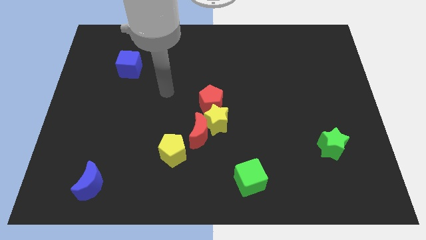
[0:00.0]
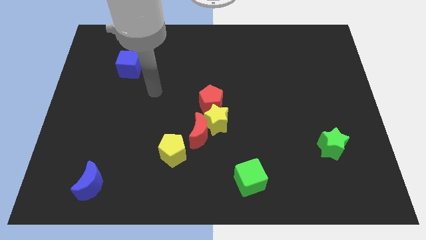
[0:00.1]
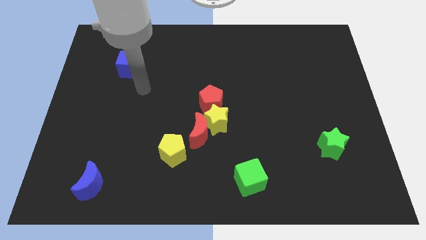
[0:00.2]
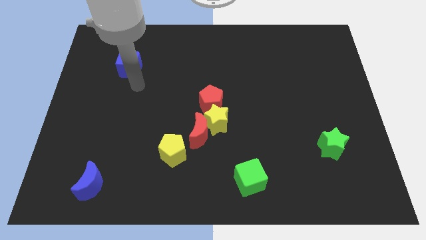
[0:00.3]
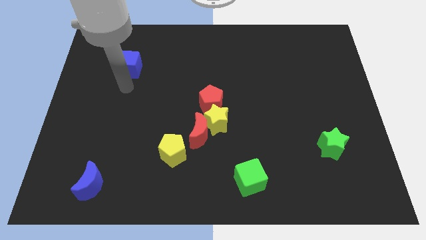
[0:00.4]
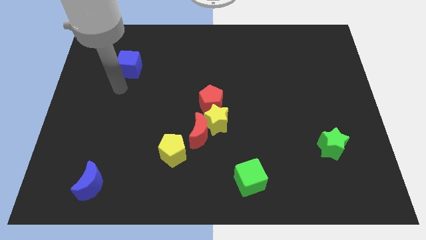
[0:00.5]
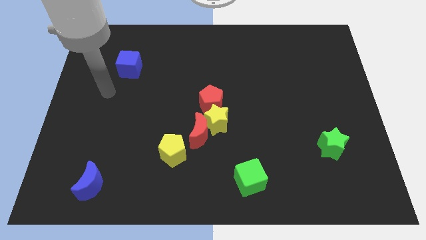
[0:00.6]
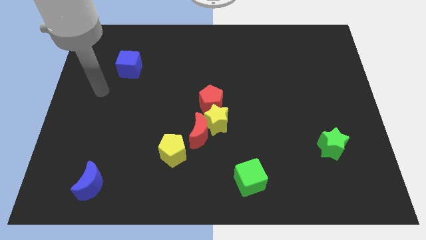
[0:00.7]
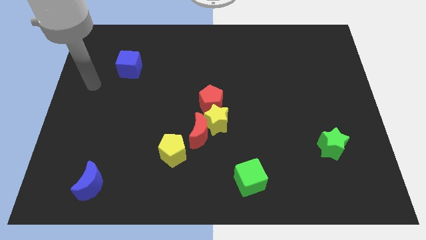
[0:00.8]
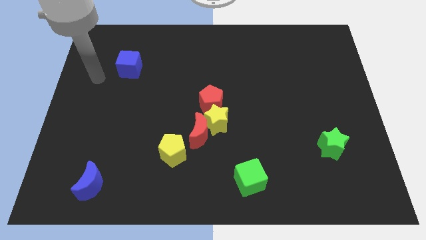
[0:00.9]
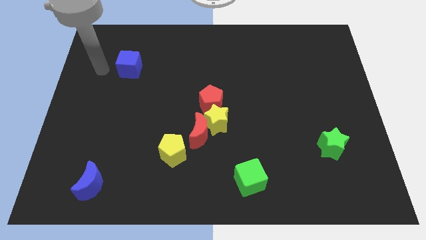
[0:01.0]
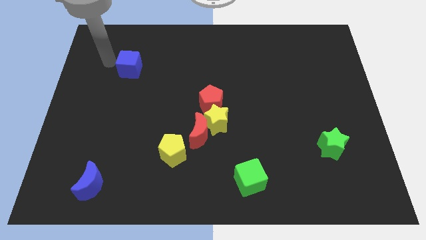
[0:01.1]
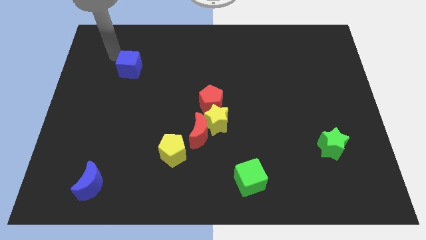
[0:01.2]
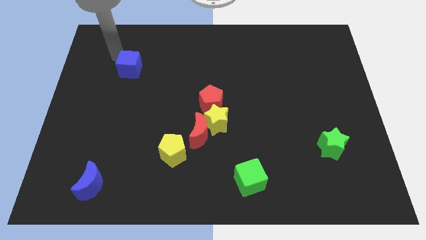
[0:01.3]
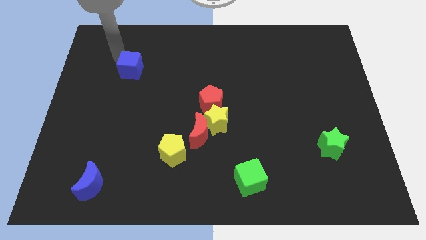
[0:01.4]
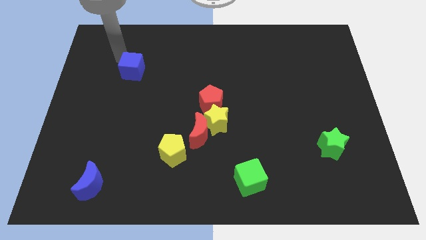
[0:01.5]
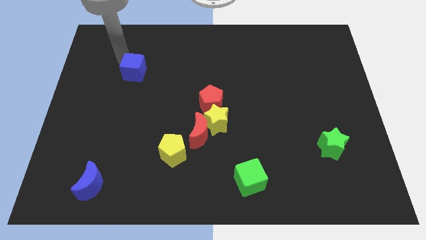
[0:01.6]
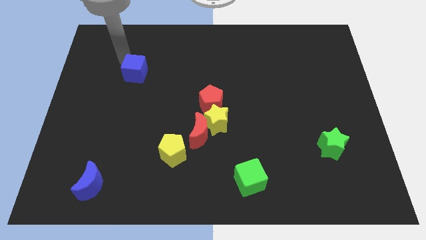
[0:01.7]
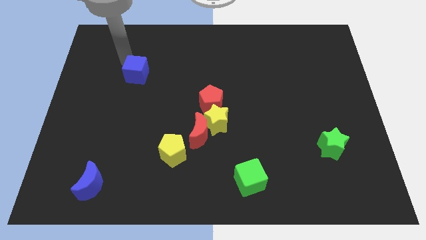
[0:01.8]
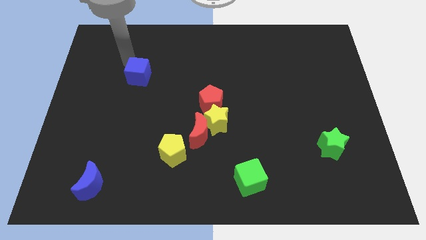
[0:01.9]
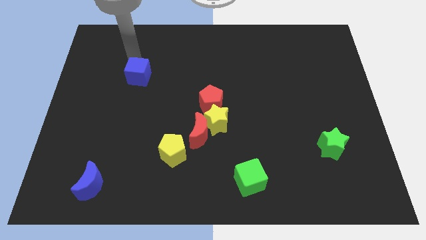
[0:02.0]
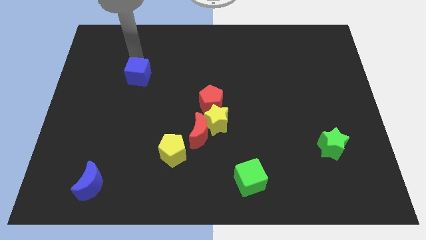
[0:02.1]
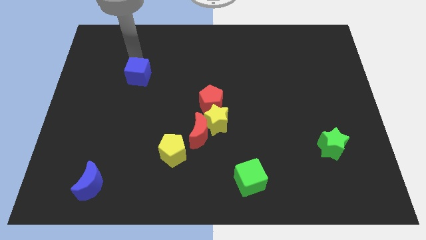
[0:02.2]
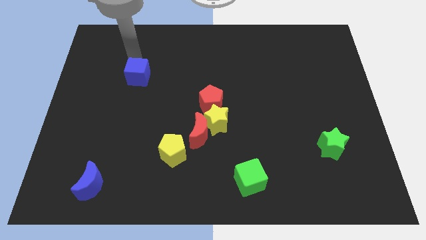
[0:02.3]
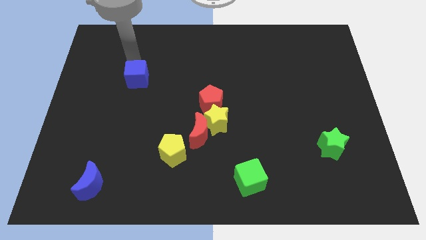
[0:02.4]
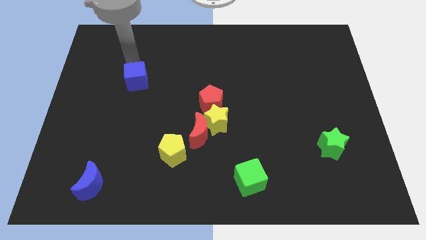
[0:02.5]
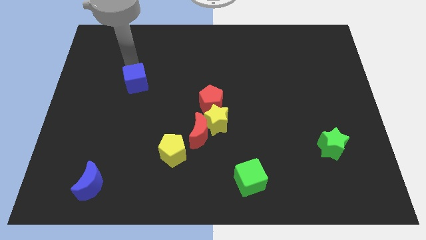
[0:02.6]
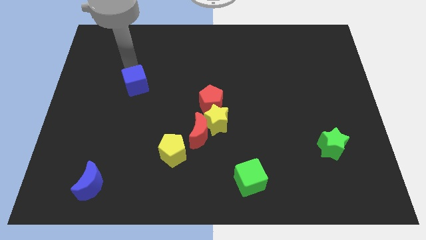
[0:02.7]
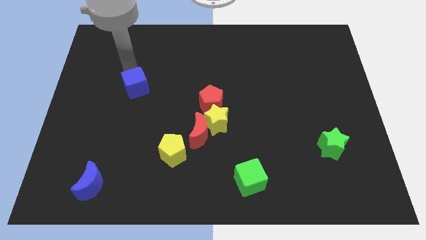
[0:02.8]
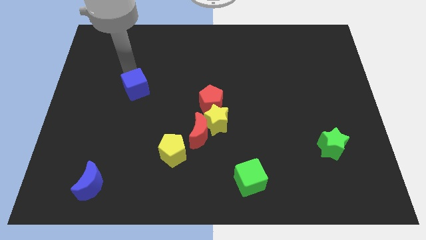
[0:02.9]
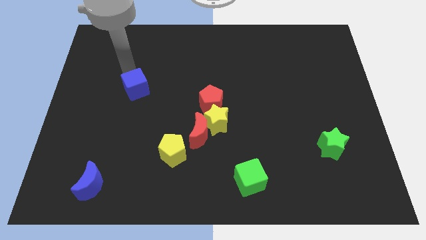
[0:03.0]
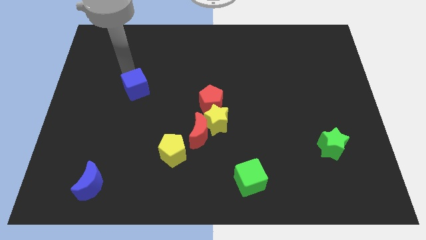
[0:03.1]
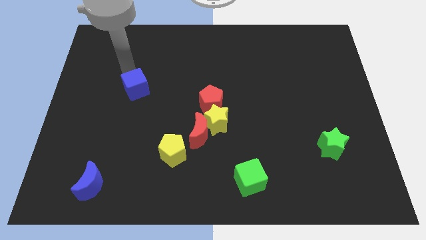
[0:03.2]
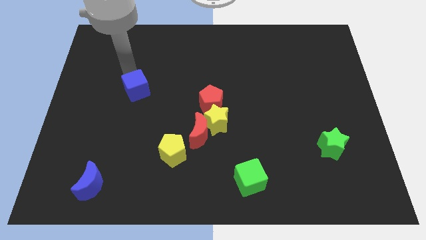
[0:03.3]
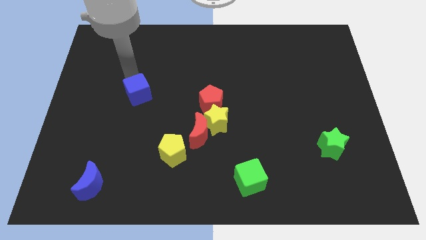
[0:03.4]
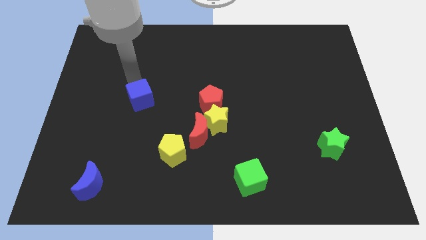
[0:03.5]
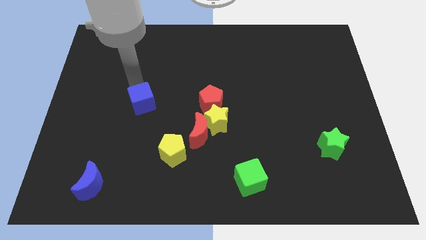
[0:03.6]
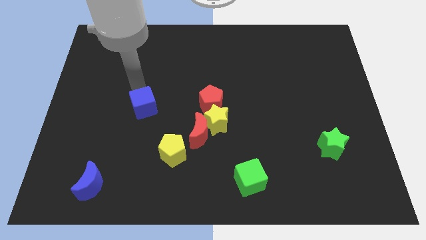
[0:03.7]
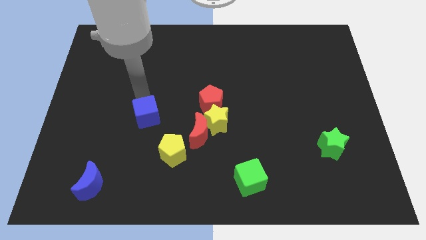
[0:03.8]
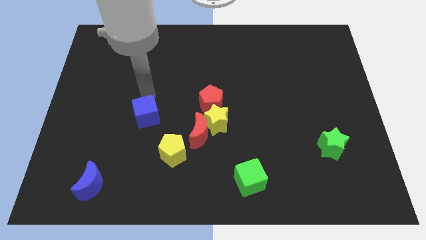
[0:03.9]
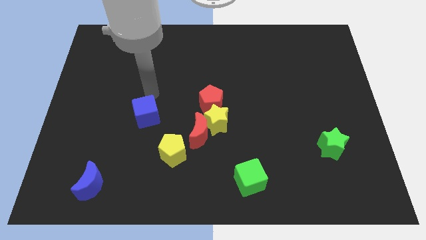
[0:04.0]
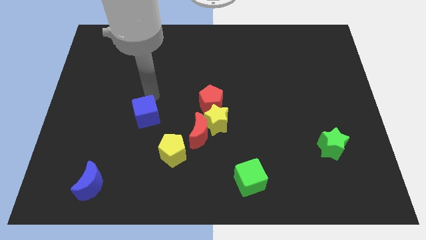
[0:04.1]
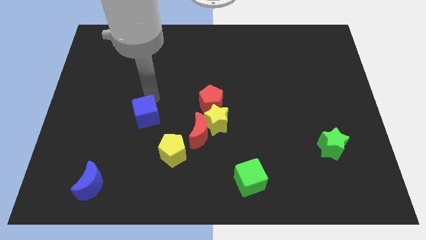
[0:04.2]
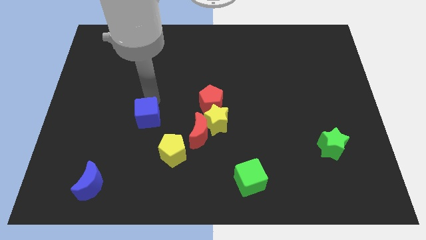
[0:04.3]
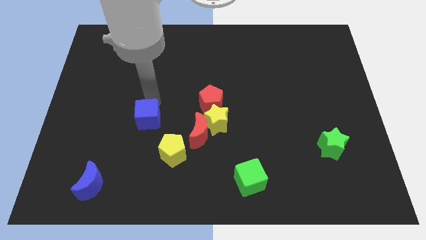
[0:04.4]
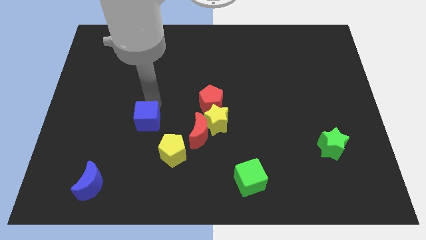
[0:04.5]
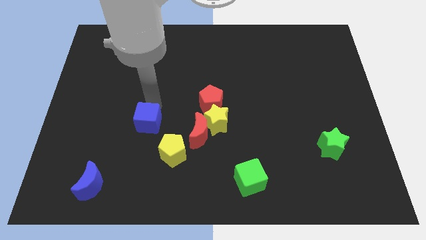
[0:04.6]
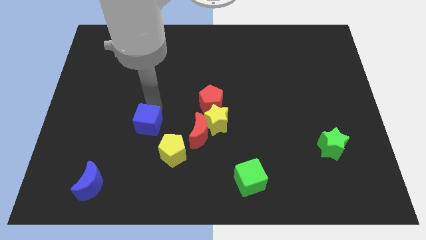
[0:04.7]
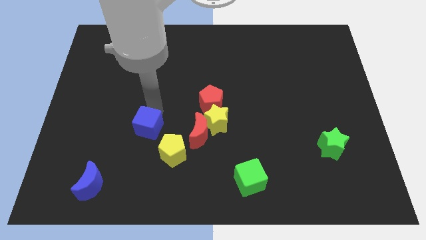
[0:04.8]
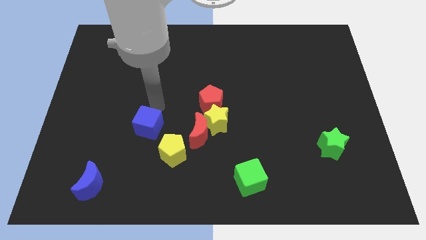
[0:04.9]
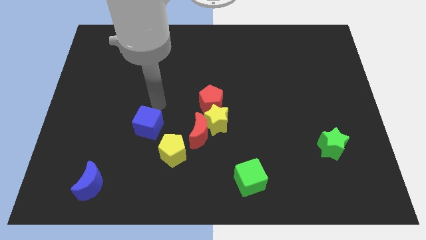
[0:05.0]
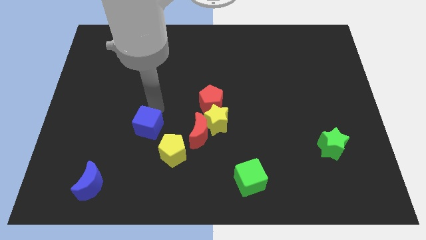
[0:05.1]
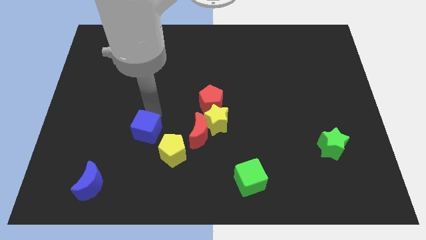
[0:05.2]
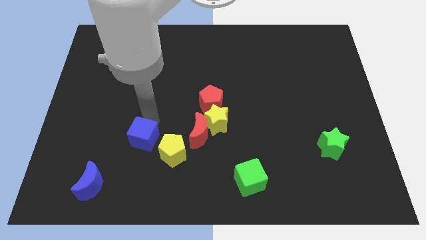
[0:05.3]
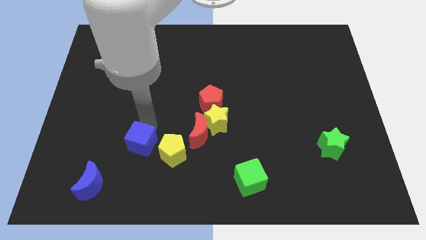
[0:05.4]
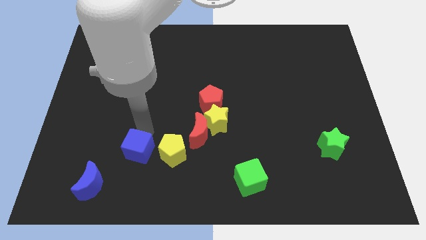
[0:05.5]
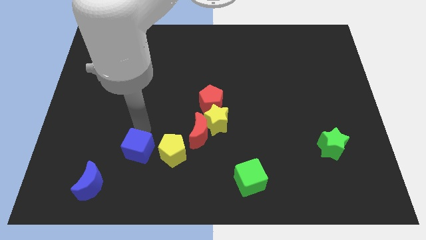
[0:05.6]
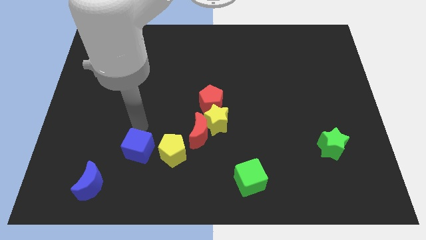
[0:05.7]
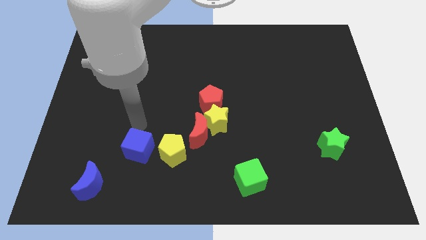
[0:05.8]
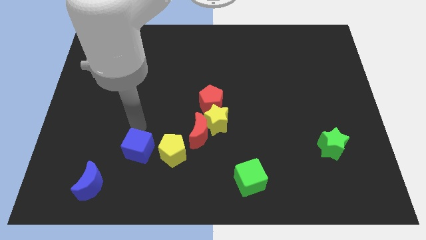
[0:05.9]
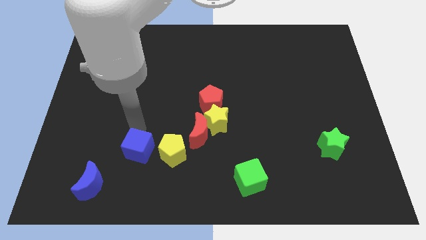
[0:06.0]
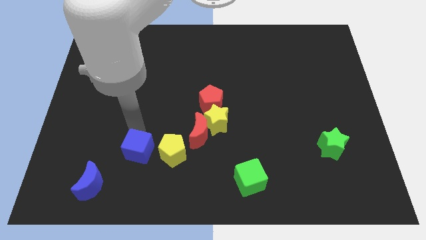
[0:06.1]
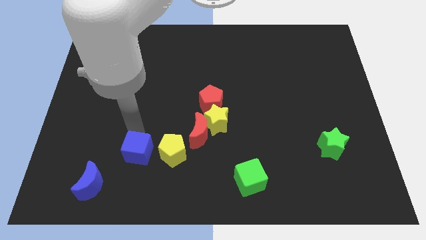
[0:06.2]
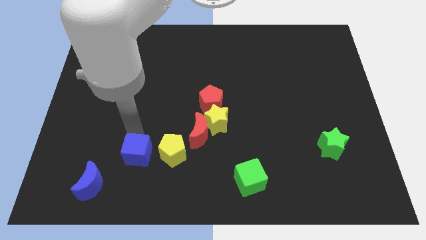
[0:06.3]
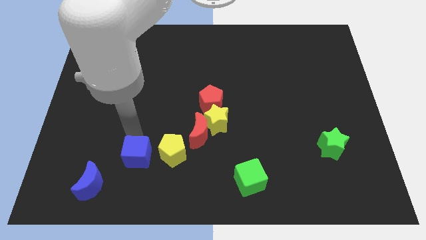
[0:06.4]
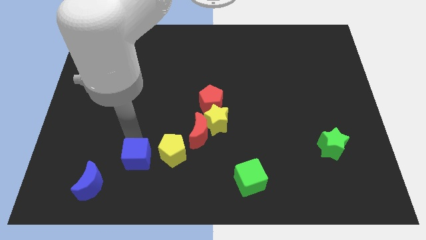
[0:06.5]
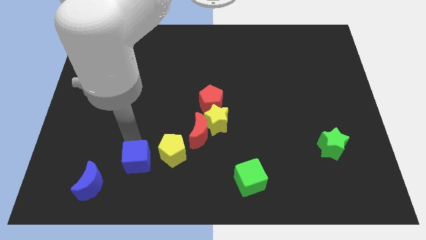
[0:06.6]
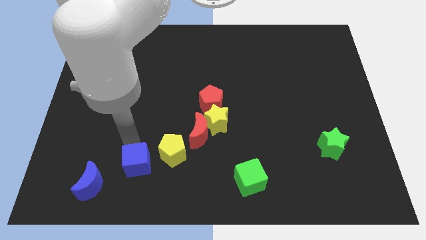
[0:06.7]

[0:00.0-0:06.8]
push the blue cube right of the blue moon

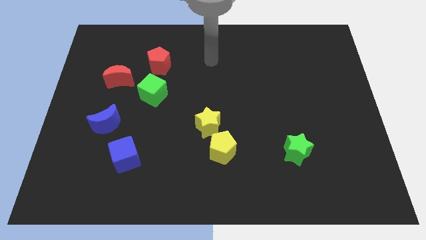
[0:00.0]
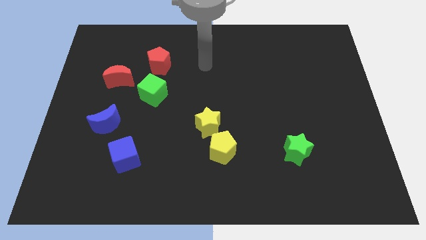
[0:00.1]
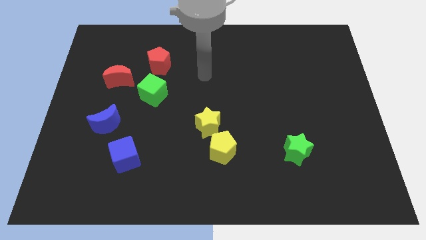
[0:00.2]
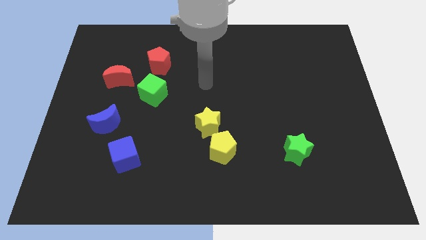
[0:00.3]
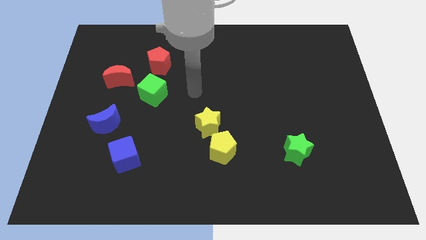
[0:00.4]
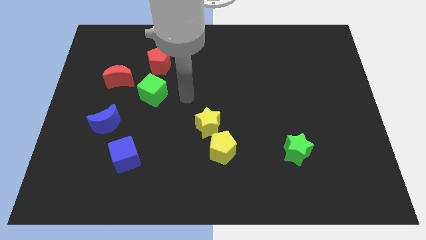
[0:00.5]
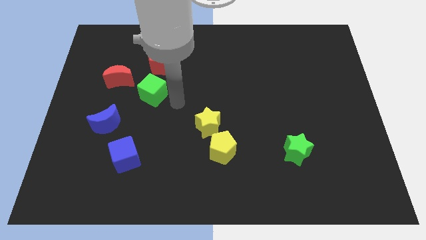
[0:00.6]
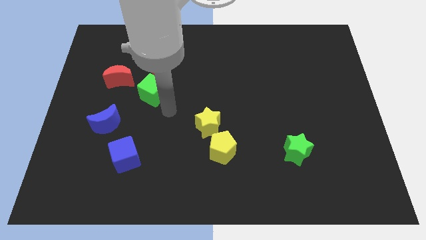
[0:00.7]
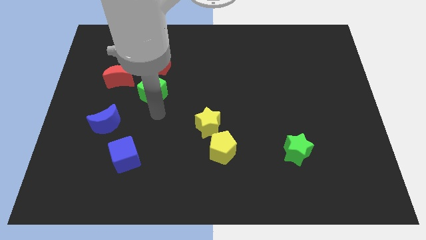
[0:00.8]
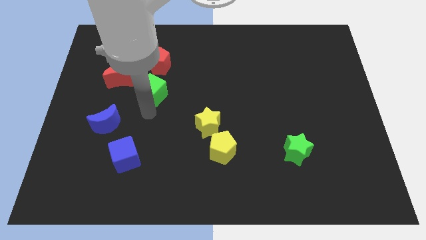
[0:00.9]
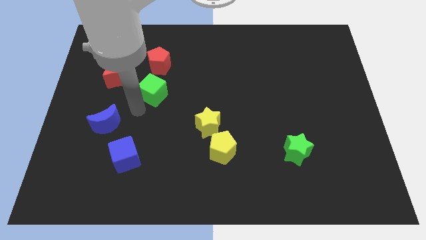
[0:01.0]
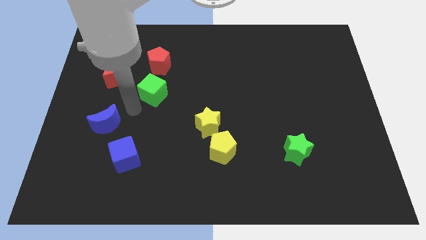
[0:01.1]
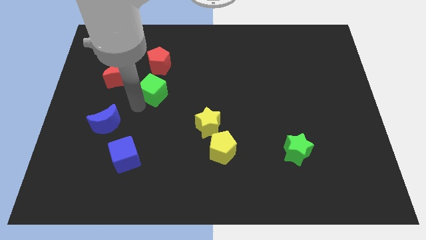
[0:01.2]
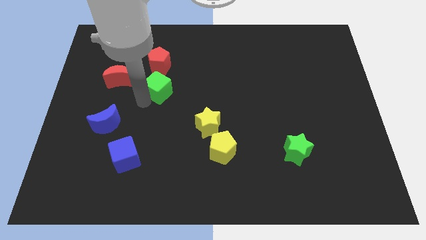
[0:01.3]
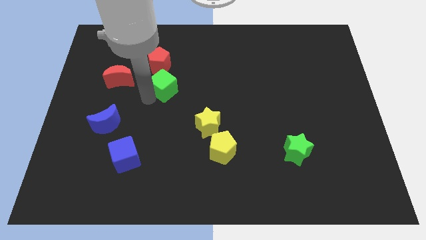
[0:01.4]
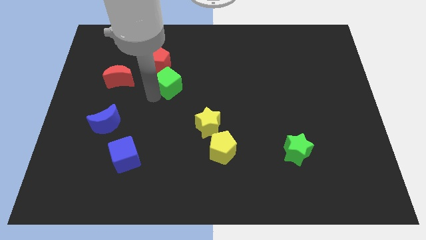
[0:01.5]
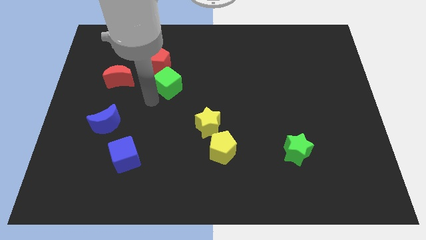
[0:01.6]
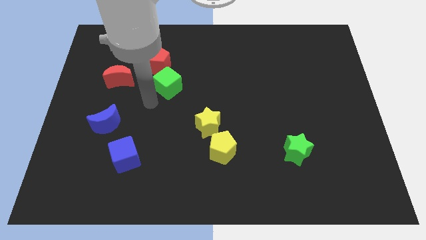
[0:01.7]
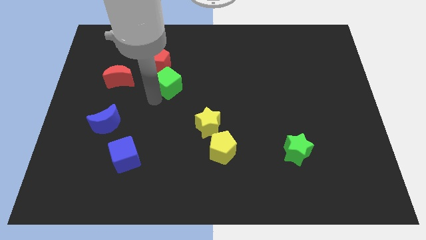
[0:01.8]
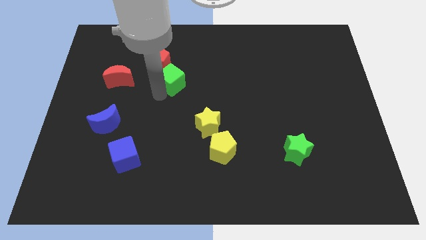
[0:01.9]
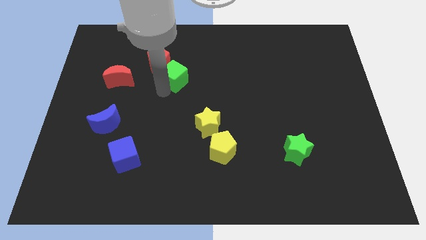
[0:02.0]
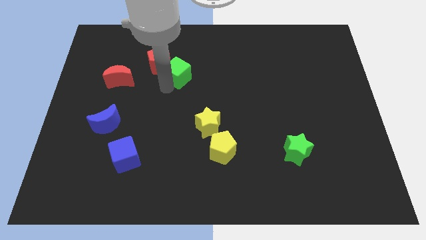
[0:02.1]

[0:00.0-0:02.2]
put the green cube to the right of the red pentagon
